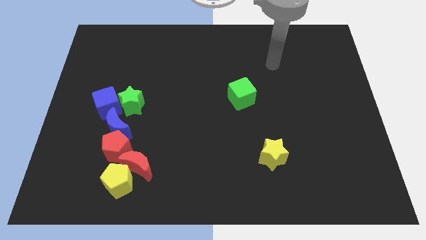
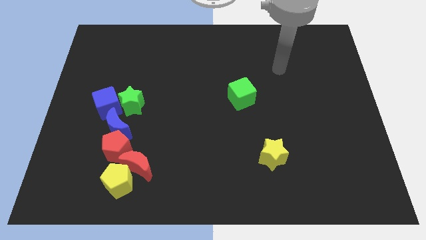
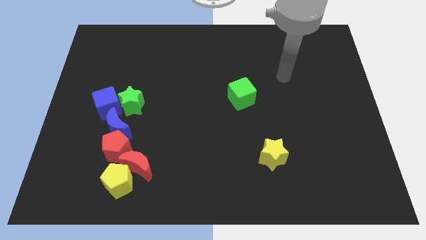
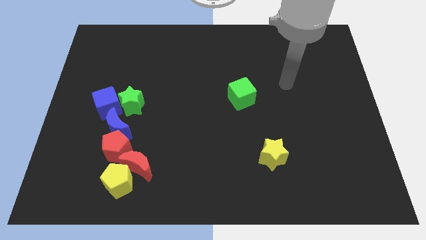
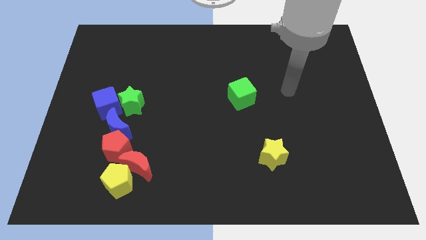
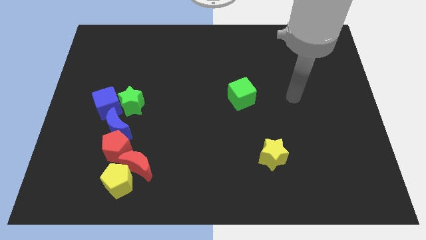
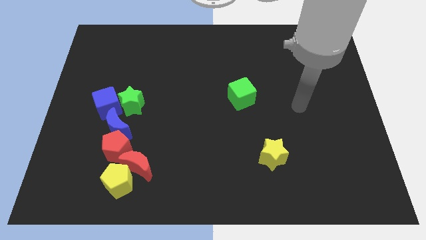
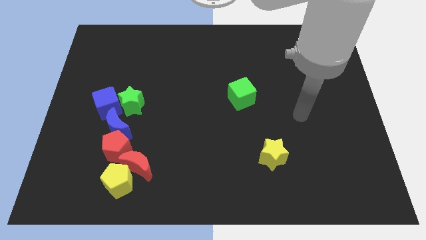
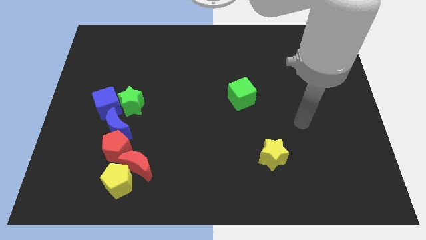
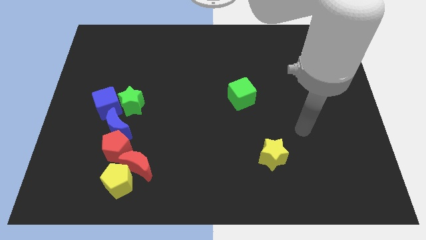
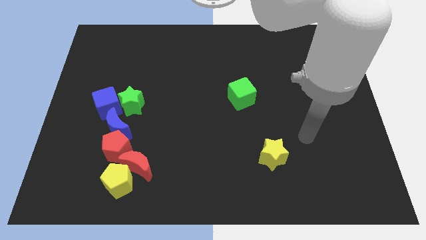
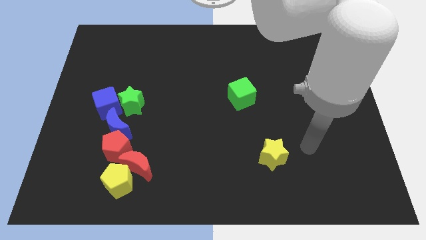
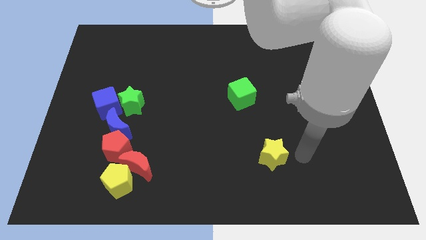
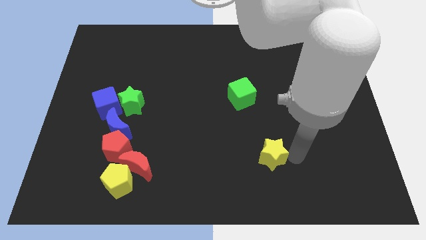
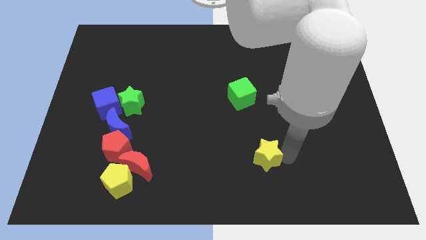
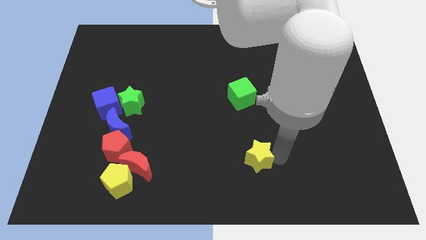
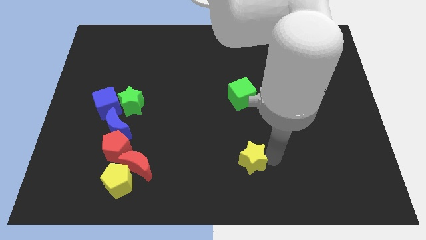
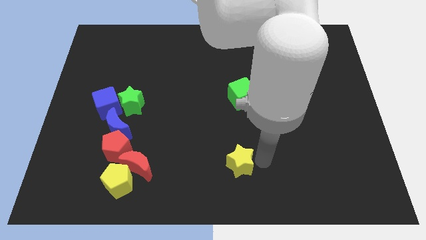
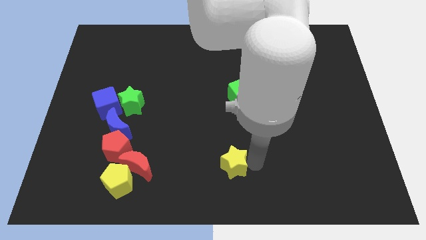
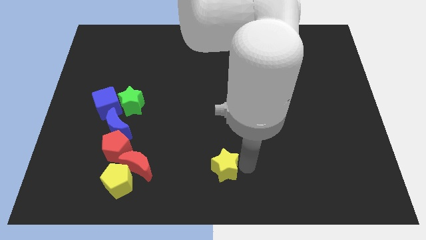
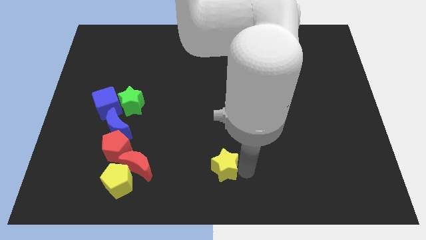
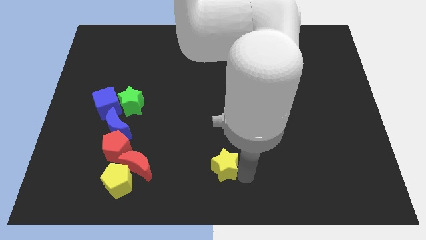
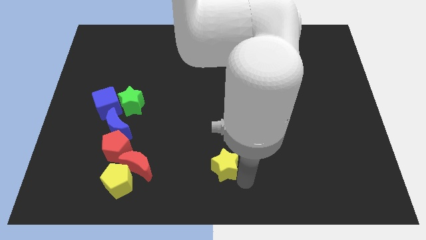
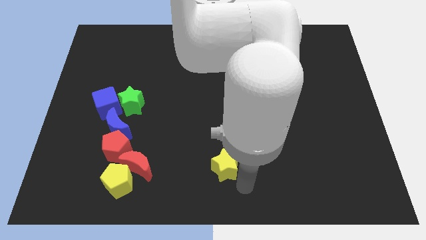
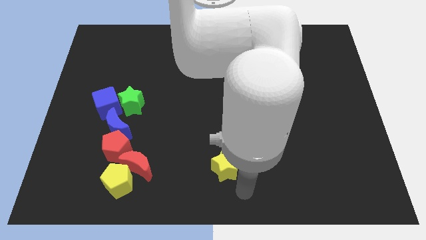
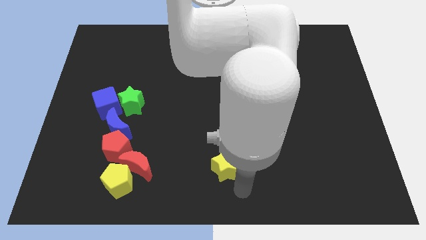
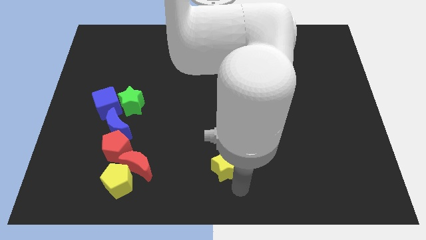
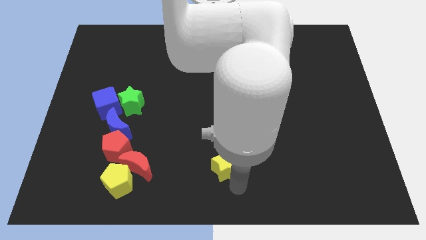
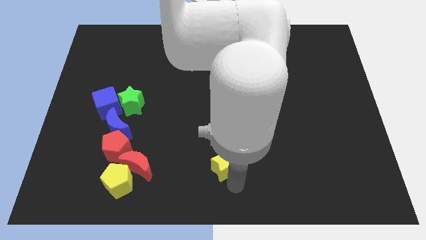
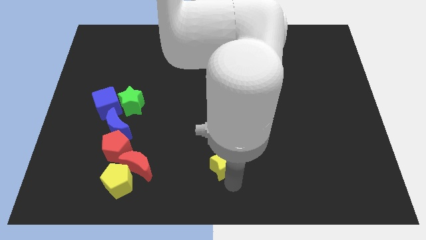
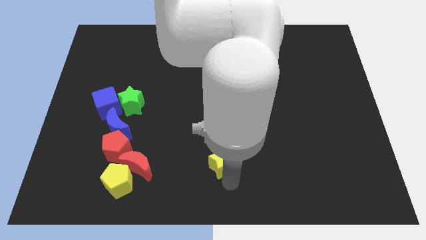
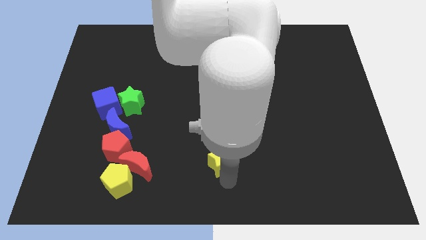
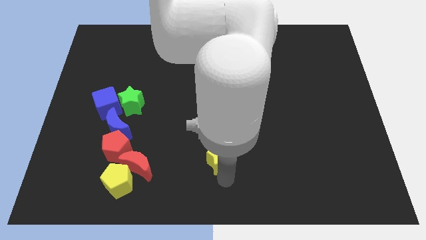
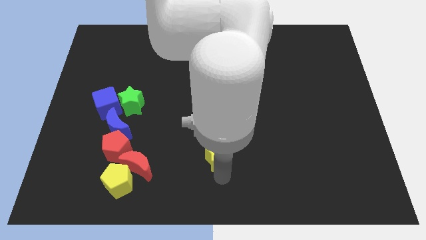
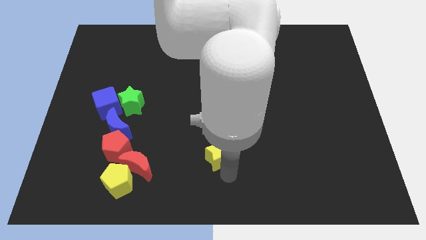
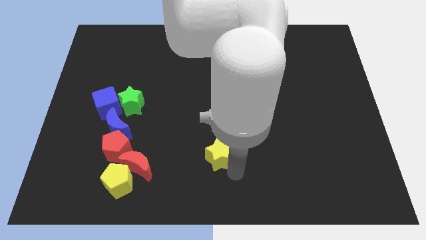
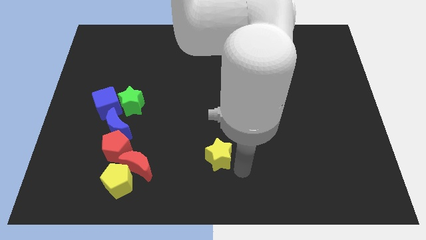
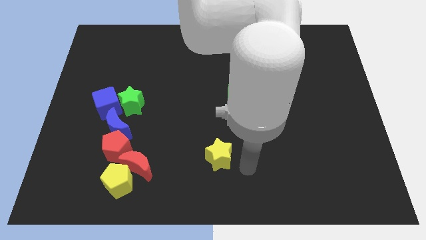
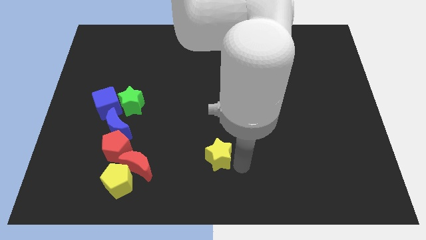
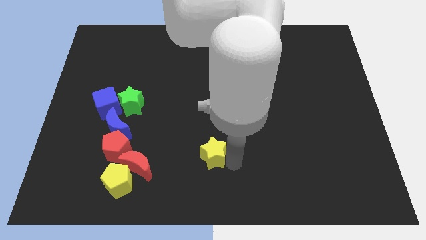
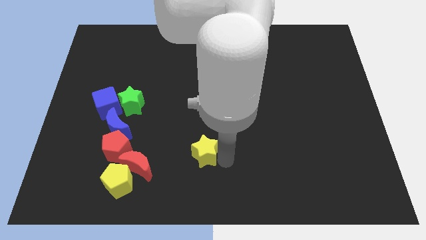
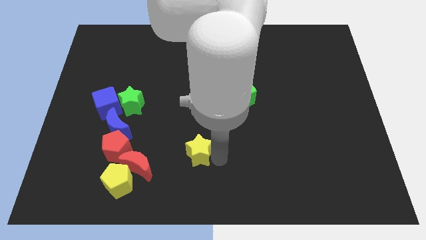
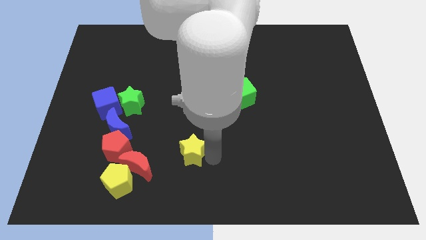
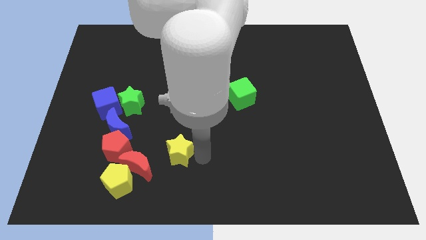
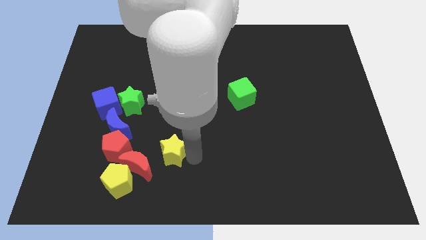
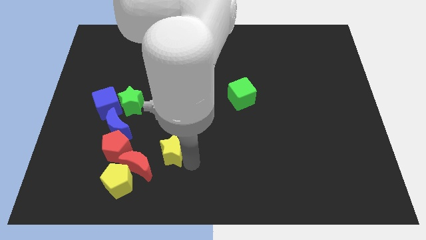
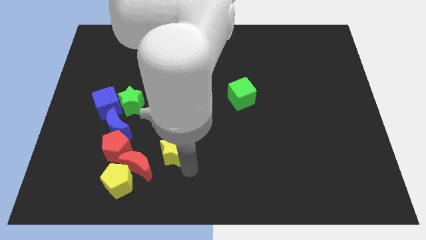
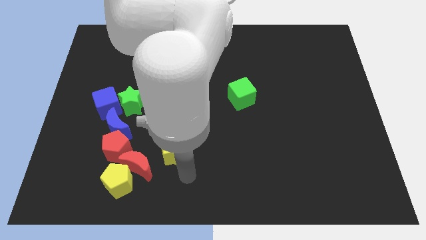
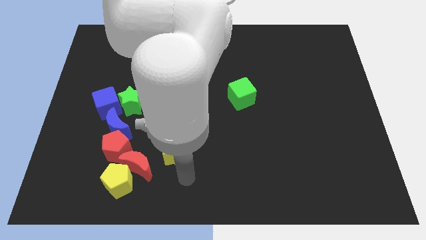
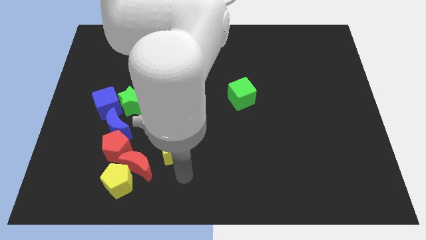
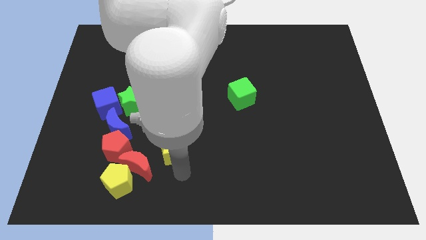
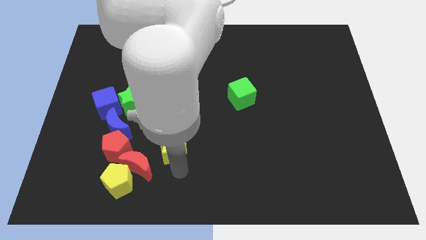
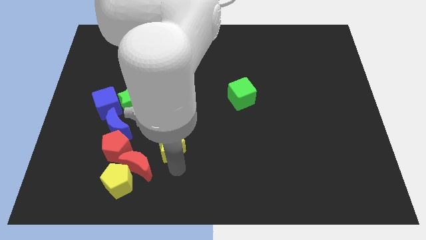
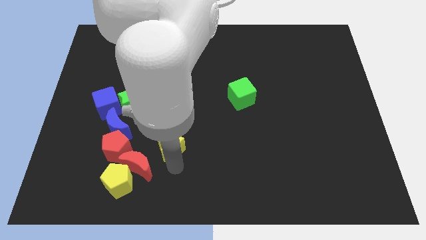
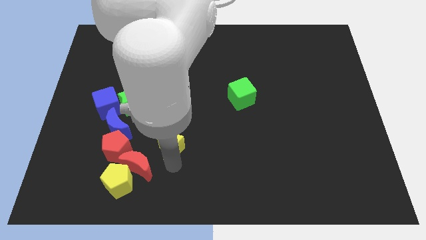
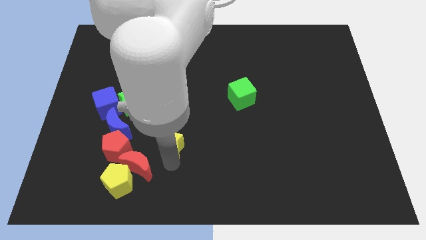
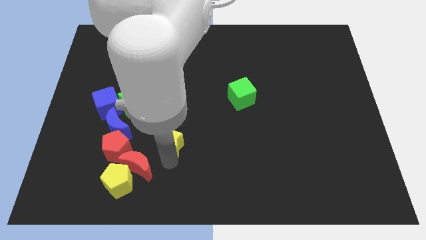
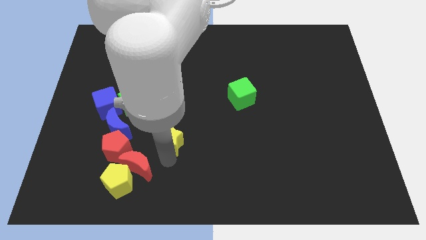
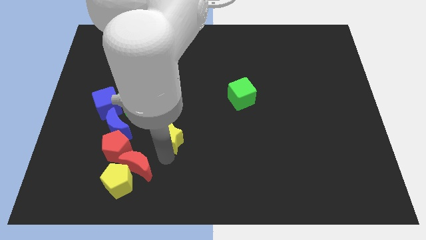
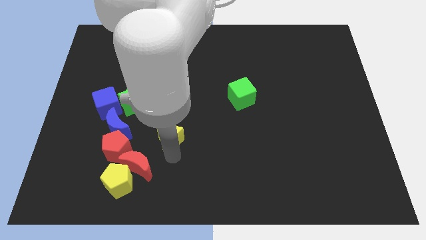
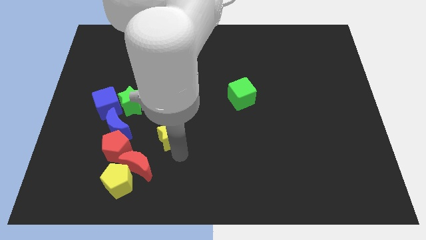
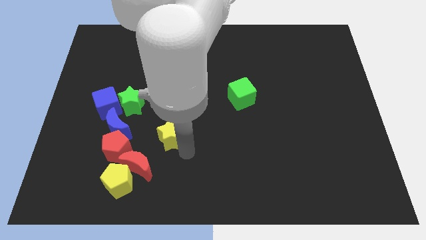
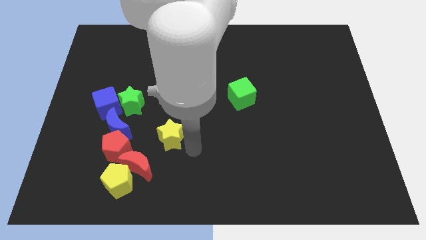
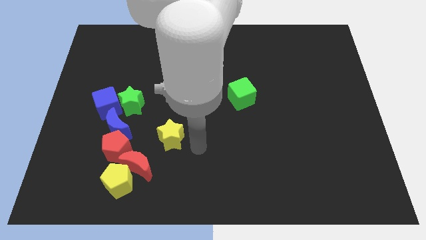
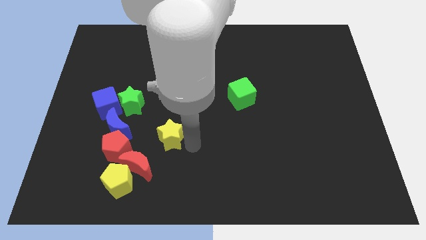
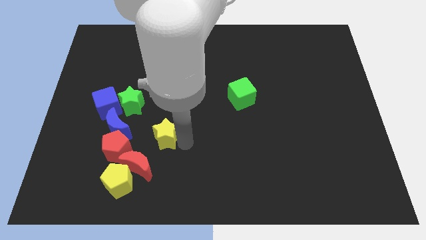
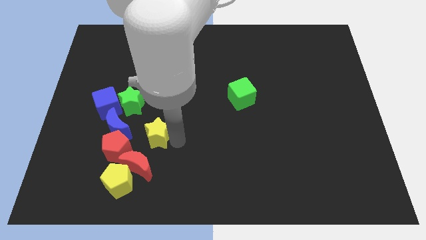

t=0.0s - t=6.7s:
push the yellow star to the top right of the red pentagon

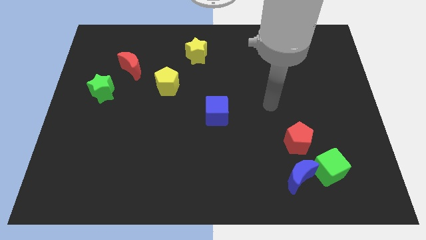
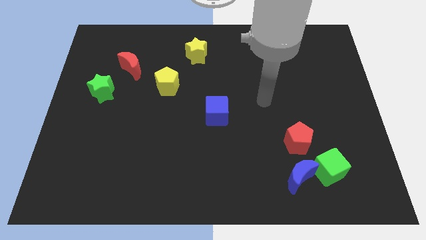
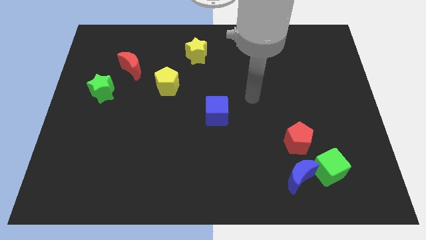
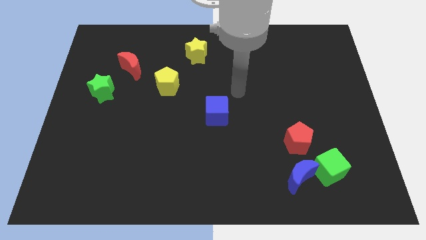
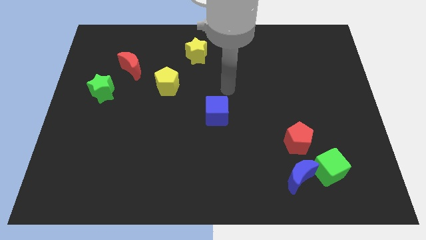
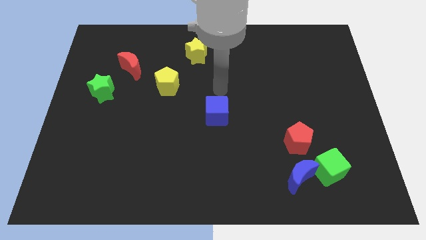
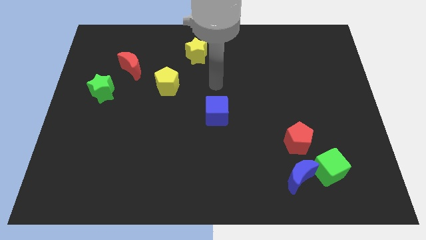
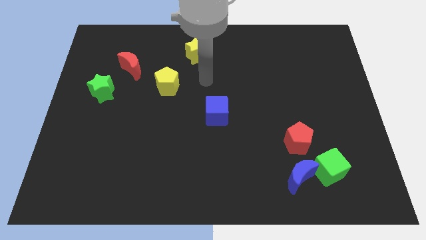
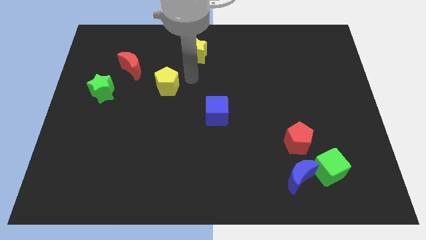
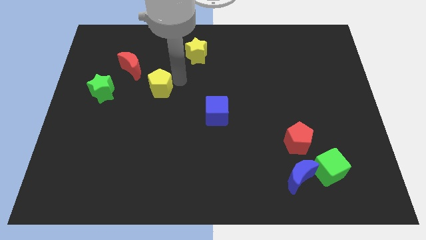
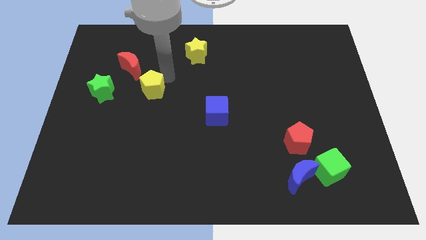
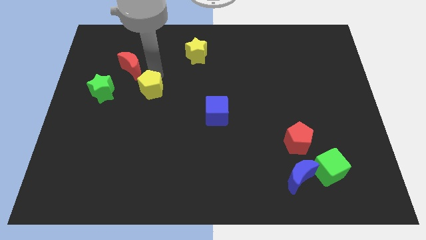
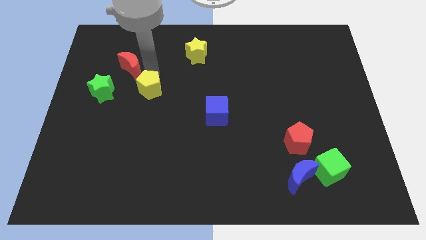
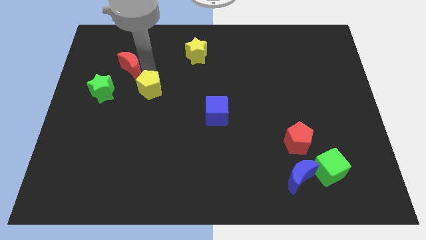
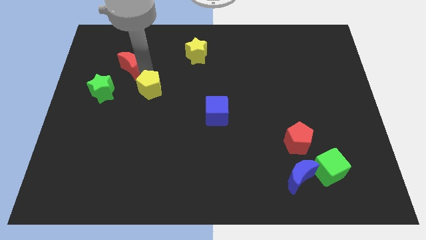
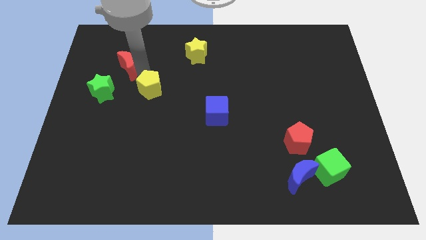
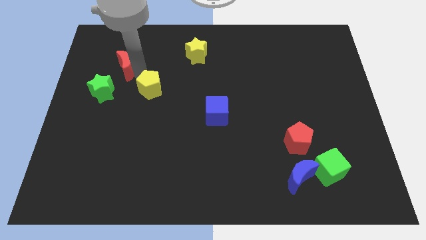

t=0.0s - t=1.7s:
put the red moon to the top side of the green star
